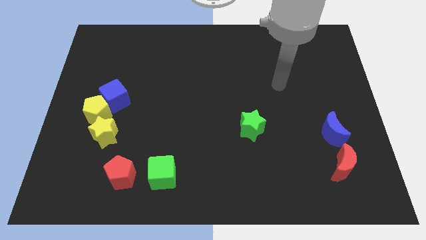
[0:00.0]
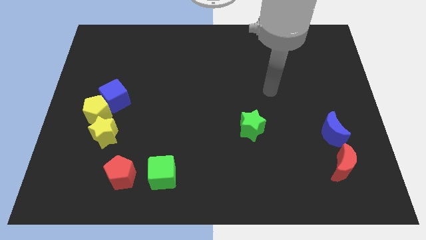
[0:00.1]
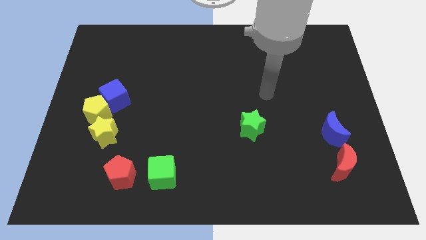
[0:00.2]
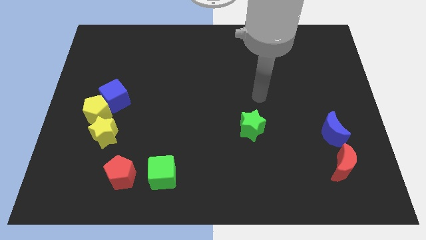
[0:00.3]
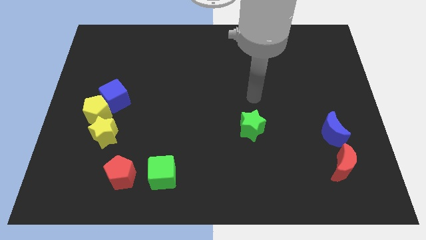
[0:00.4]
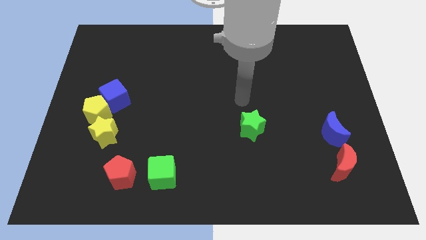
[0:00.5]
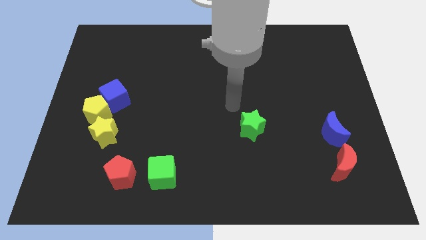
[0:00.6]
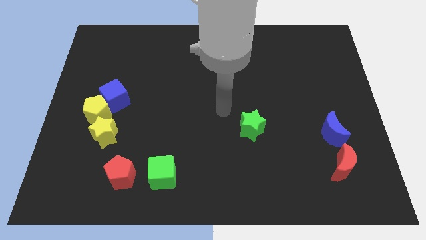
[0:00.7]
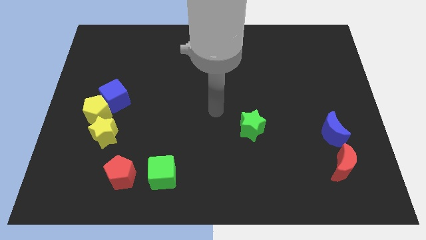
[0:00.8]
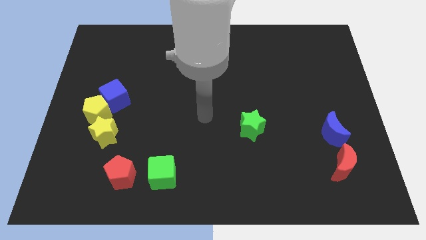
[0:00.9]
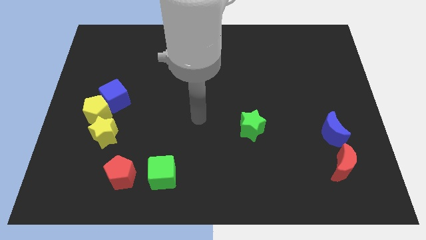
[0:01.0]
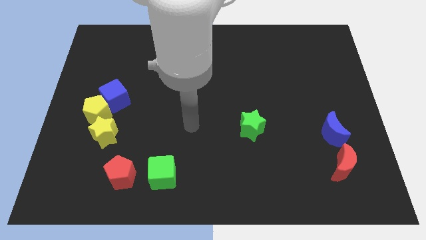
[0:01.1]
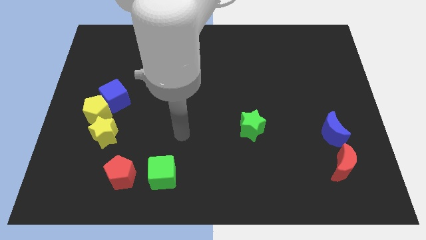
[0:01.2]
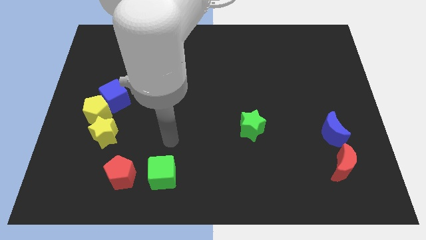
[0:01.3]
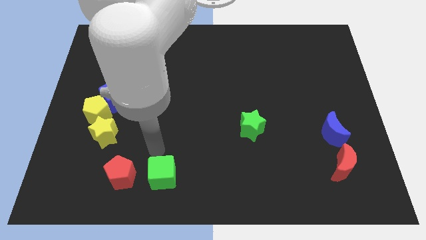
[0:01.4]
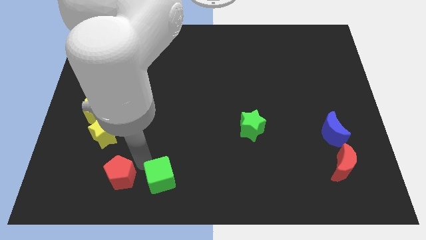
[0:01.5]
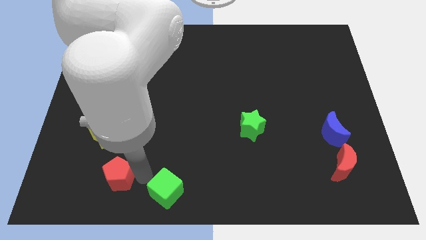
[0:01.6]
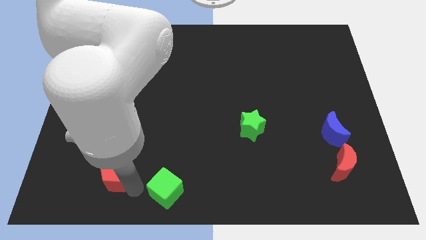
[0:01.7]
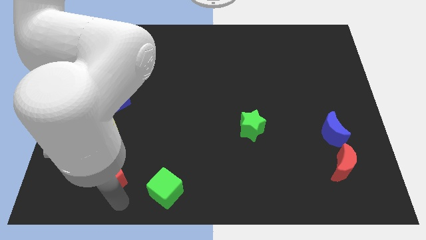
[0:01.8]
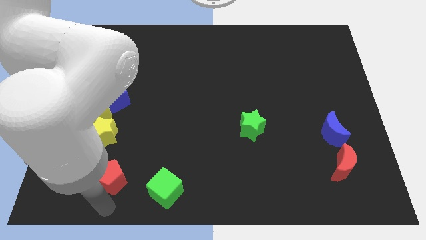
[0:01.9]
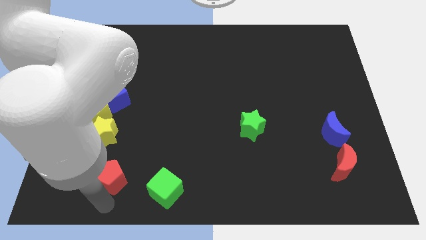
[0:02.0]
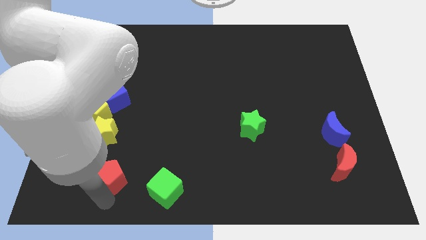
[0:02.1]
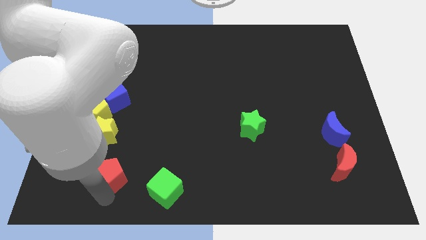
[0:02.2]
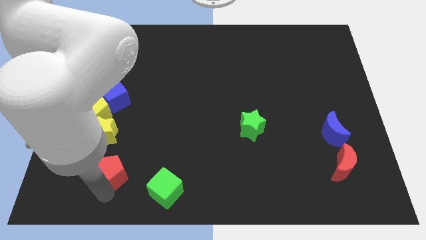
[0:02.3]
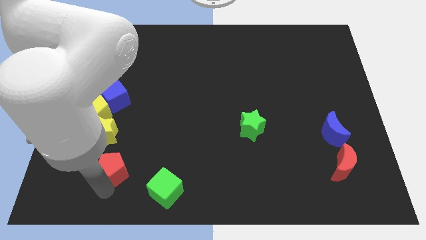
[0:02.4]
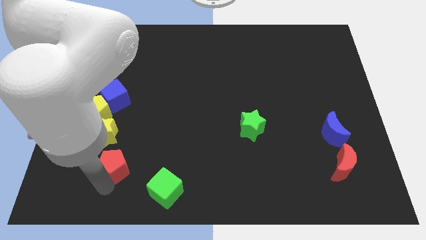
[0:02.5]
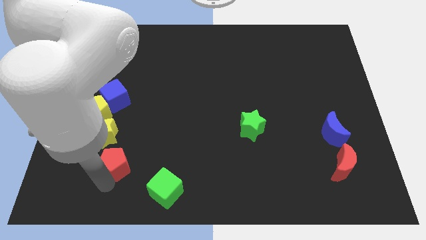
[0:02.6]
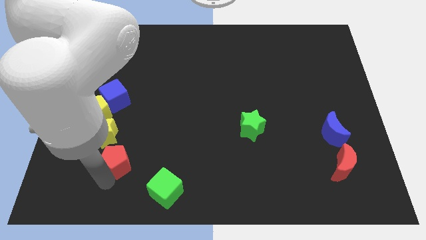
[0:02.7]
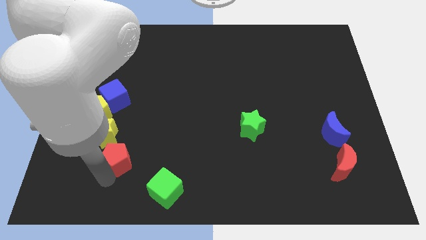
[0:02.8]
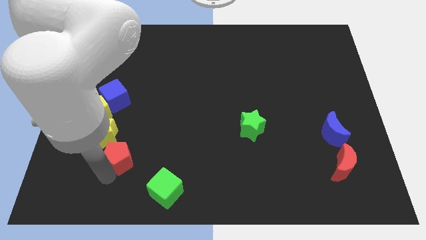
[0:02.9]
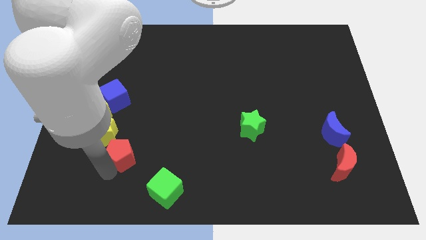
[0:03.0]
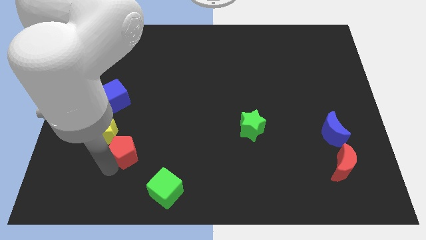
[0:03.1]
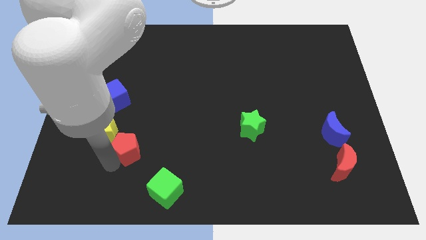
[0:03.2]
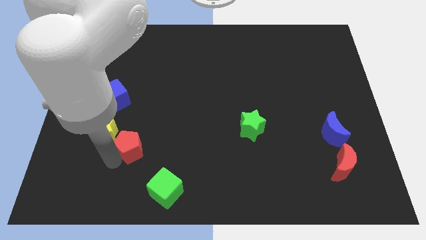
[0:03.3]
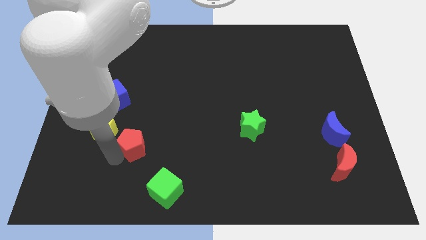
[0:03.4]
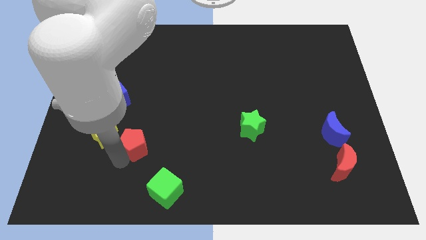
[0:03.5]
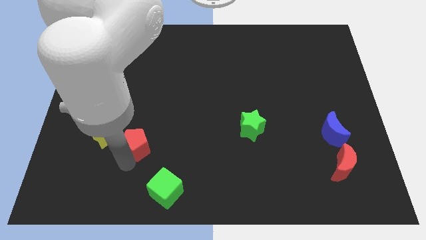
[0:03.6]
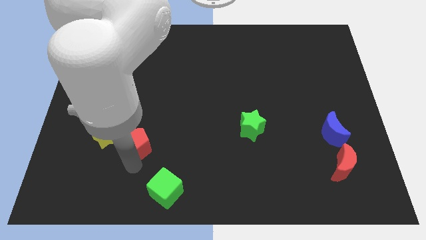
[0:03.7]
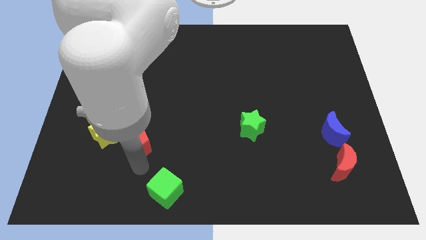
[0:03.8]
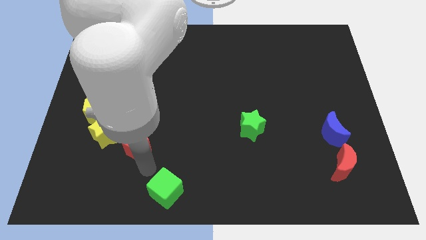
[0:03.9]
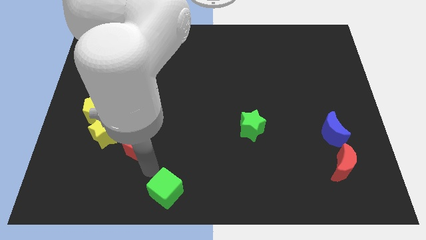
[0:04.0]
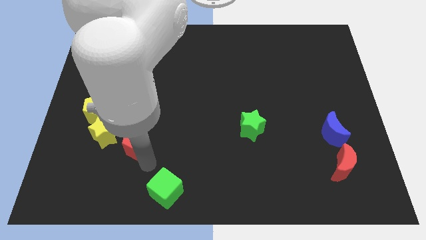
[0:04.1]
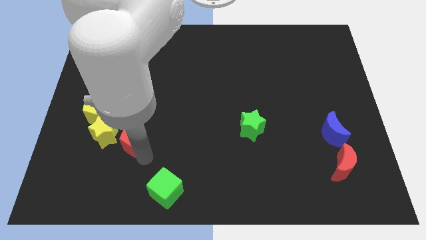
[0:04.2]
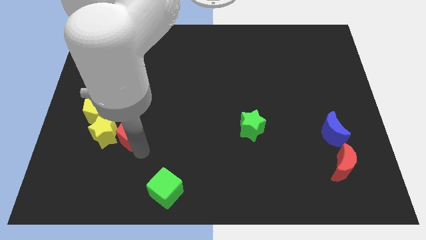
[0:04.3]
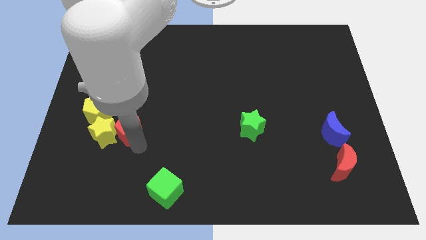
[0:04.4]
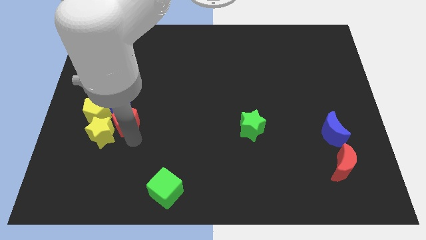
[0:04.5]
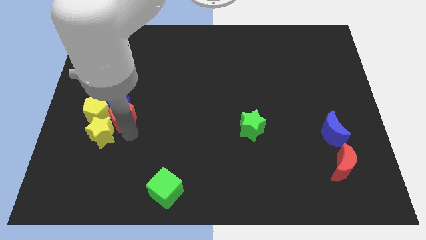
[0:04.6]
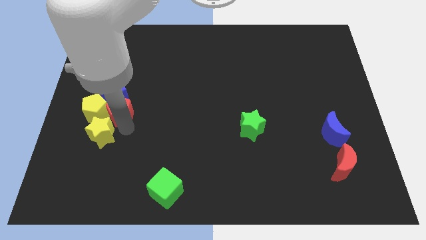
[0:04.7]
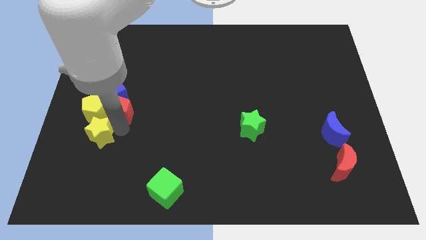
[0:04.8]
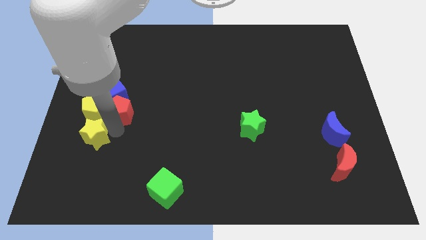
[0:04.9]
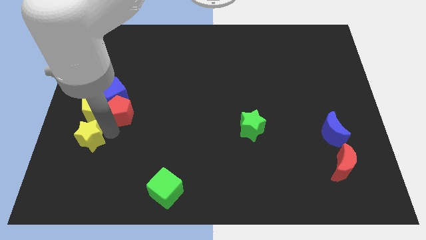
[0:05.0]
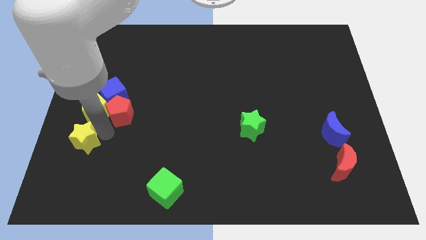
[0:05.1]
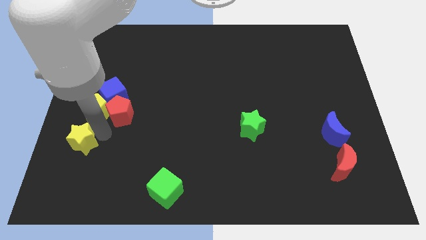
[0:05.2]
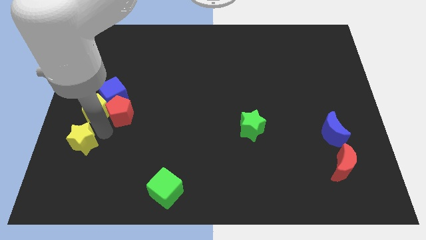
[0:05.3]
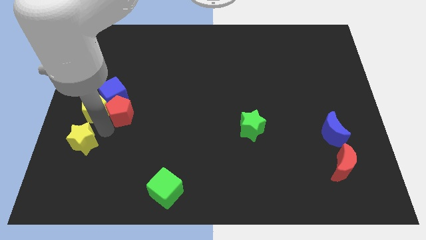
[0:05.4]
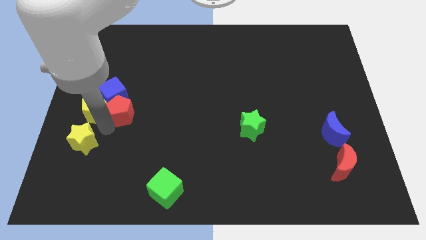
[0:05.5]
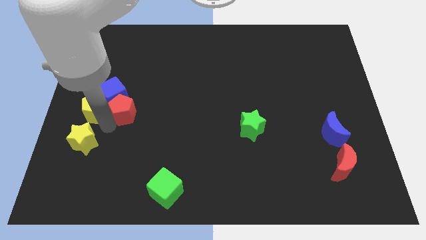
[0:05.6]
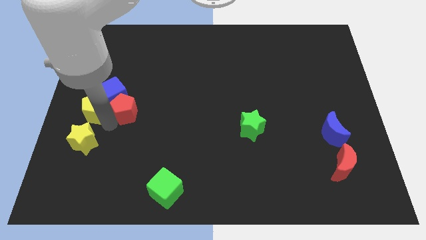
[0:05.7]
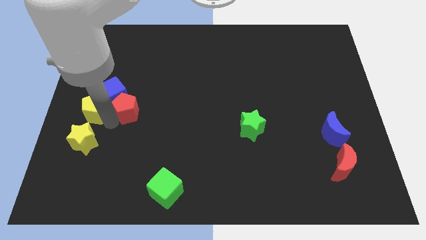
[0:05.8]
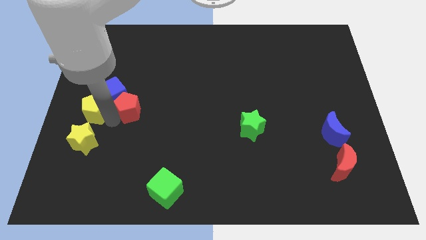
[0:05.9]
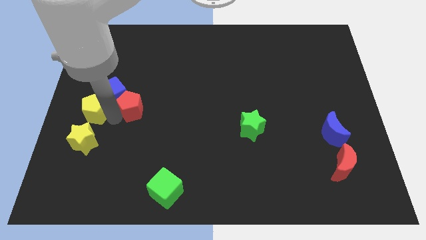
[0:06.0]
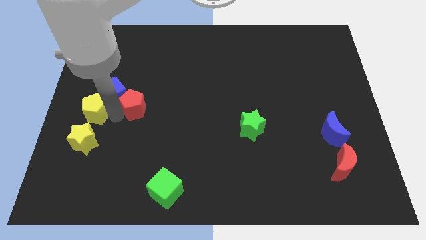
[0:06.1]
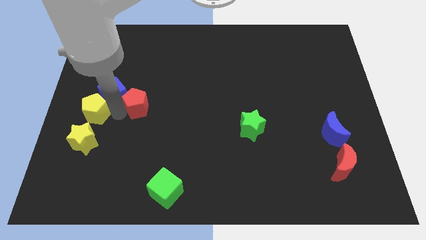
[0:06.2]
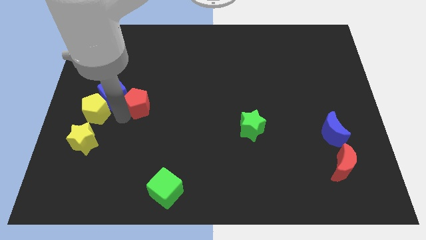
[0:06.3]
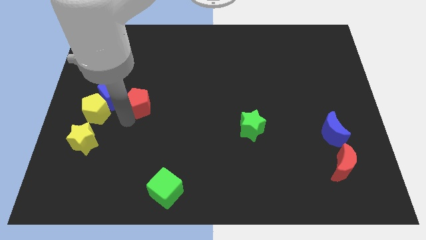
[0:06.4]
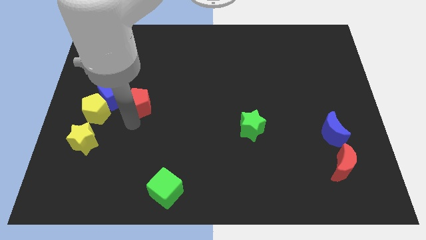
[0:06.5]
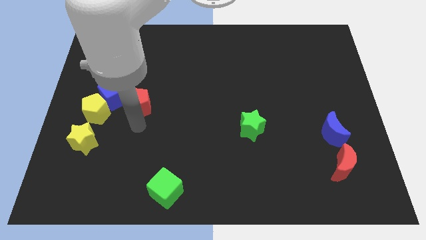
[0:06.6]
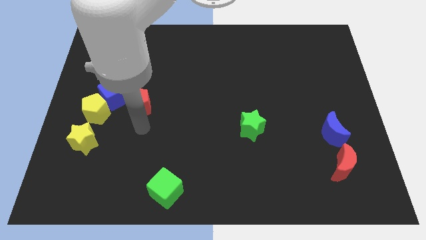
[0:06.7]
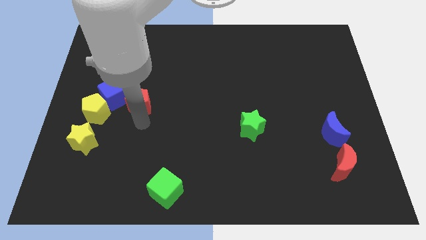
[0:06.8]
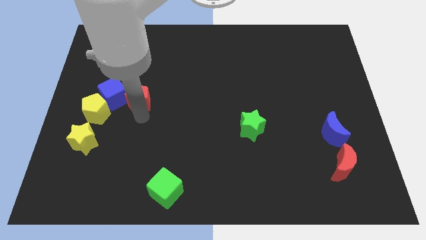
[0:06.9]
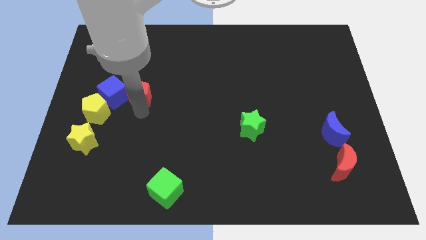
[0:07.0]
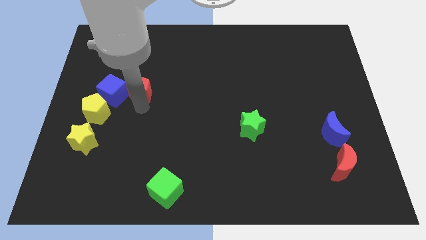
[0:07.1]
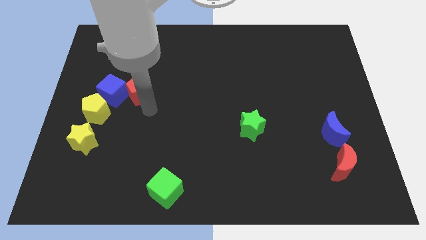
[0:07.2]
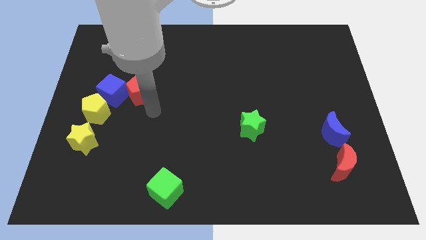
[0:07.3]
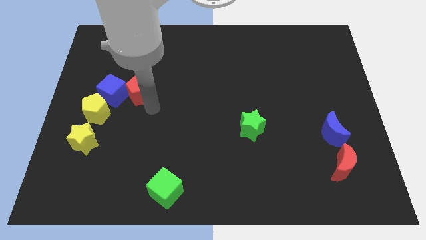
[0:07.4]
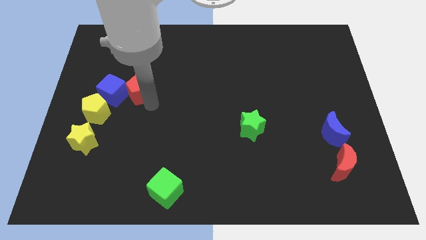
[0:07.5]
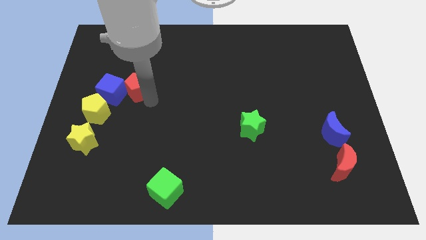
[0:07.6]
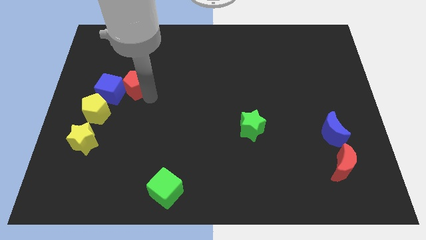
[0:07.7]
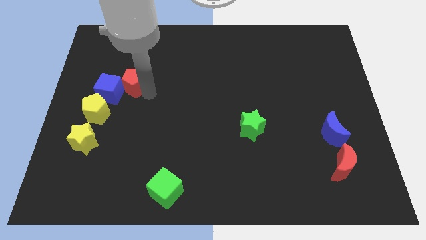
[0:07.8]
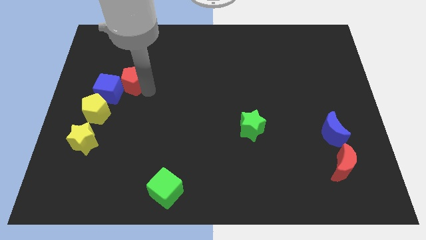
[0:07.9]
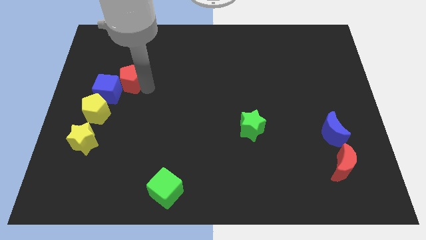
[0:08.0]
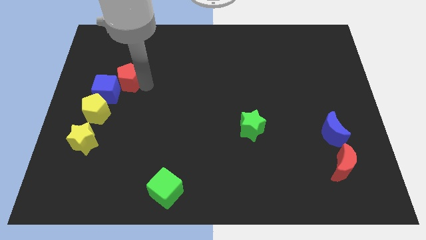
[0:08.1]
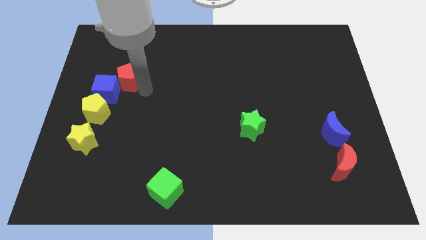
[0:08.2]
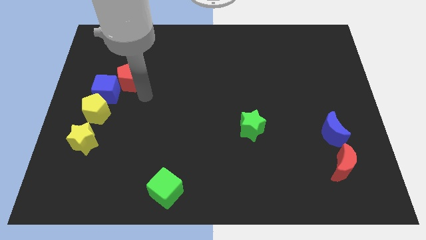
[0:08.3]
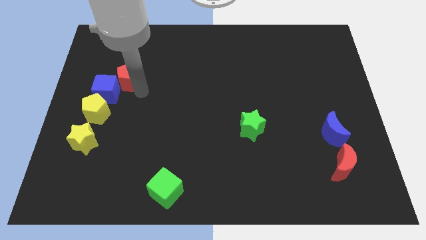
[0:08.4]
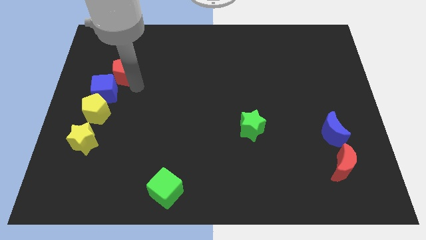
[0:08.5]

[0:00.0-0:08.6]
move the red pentagon to the top of the blue cube
